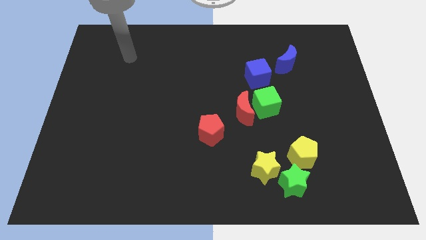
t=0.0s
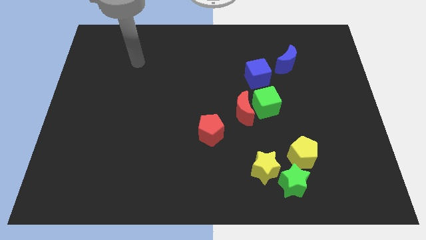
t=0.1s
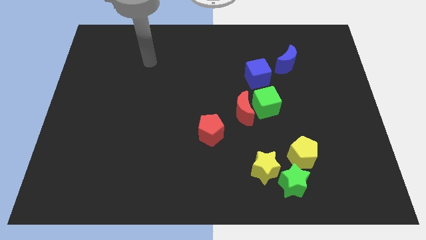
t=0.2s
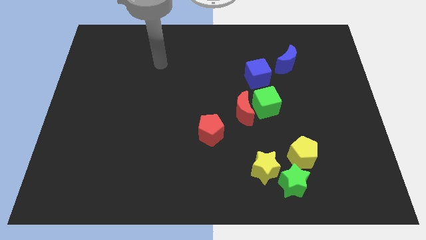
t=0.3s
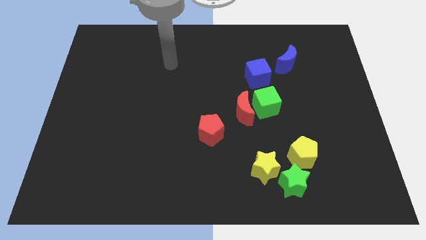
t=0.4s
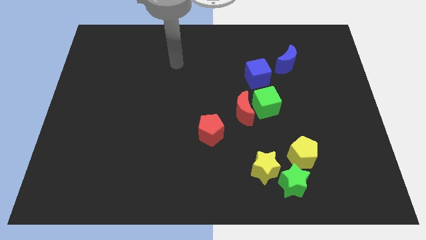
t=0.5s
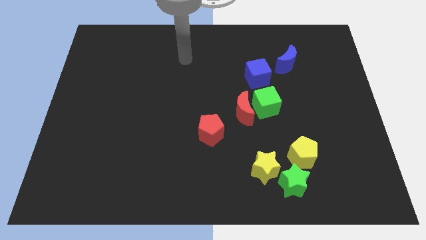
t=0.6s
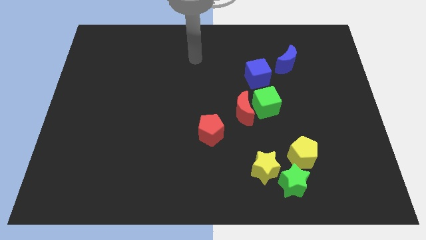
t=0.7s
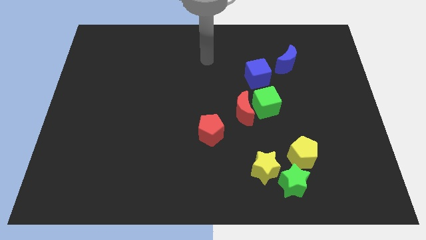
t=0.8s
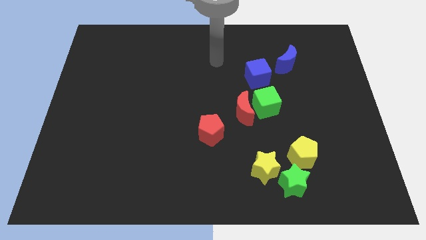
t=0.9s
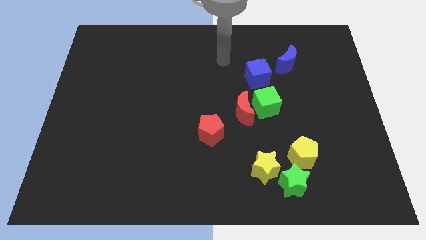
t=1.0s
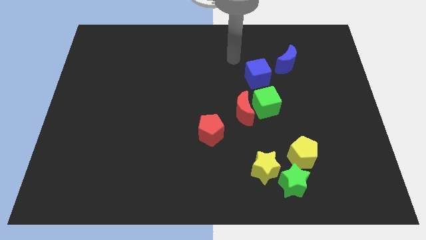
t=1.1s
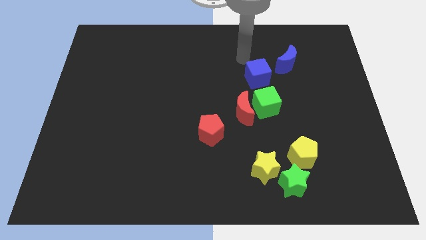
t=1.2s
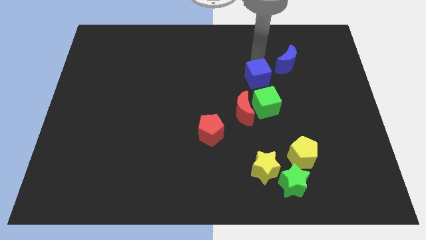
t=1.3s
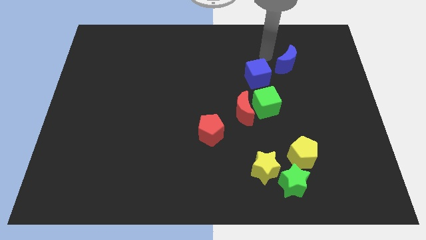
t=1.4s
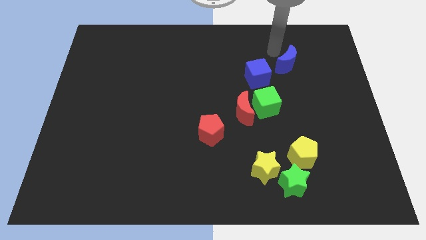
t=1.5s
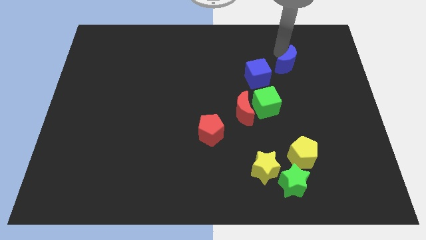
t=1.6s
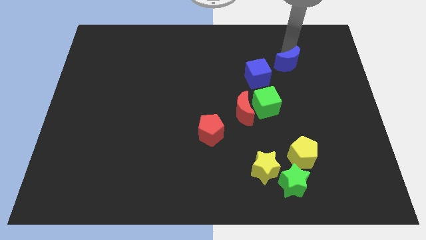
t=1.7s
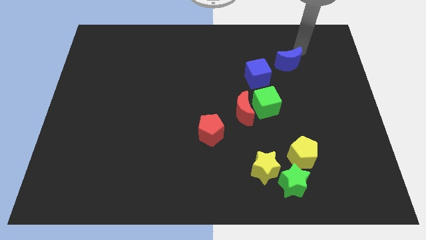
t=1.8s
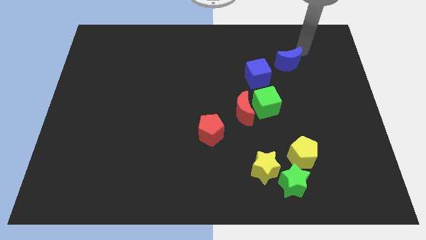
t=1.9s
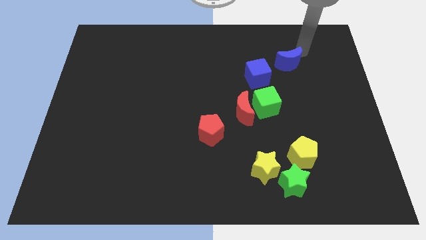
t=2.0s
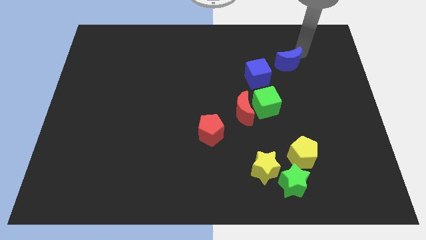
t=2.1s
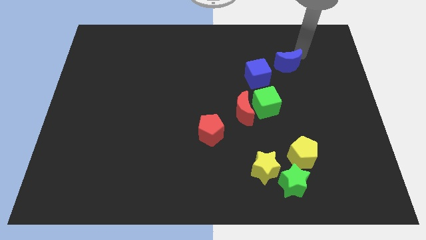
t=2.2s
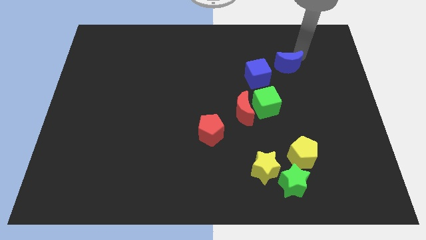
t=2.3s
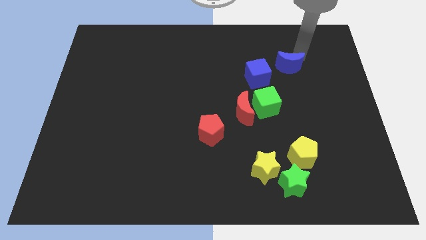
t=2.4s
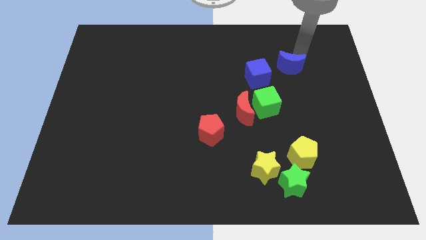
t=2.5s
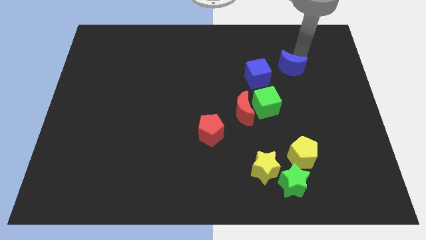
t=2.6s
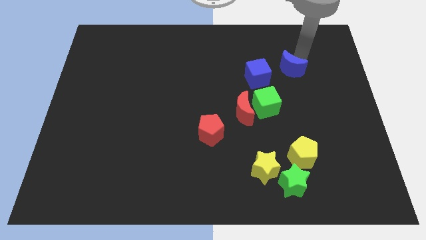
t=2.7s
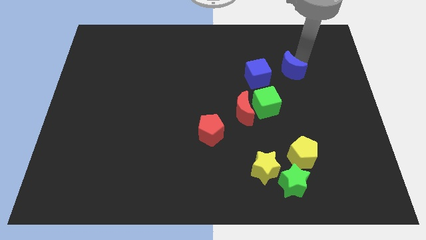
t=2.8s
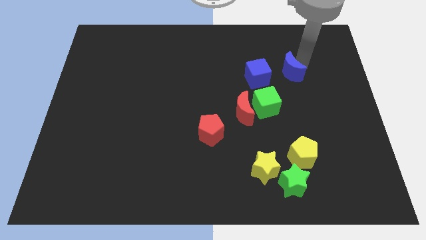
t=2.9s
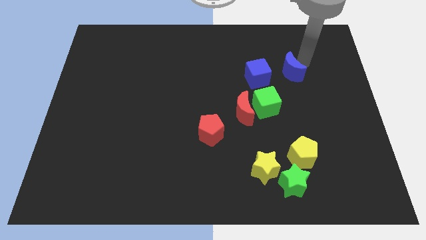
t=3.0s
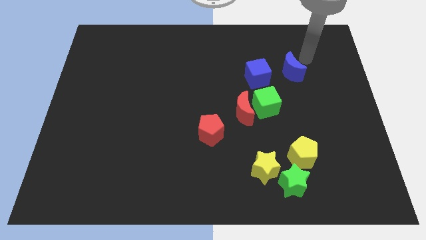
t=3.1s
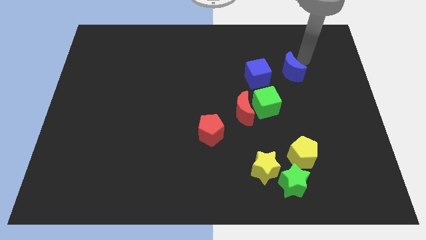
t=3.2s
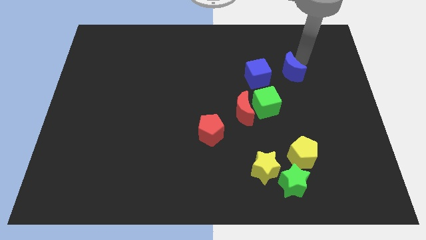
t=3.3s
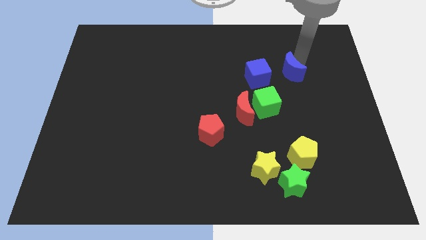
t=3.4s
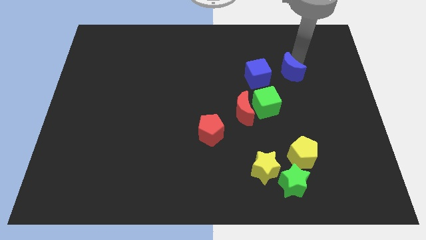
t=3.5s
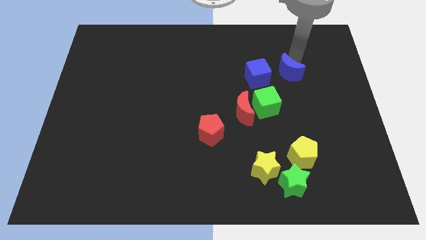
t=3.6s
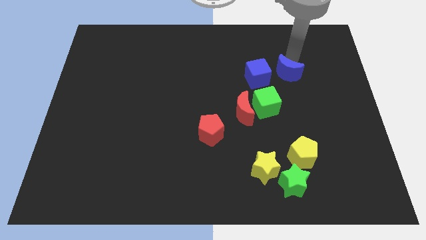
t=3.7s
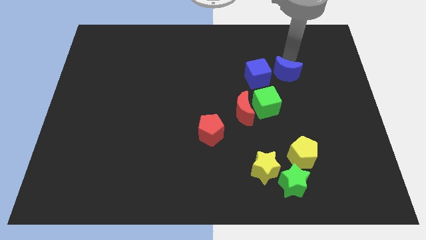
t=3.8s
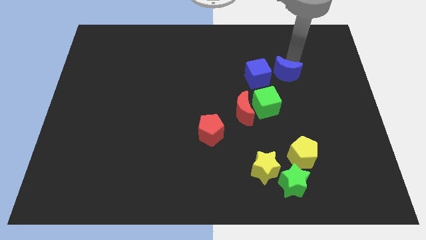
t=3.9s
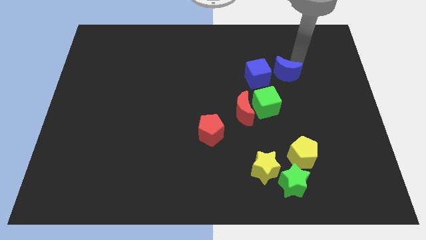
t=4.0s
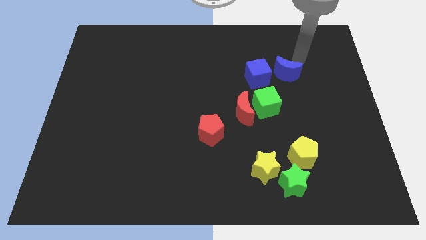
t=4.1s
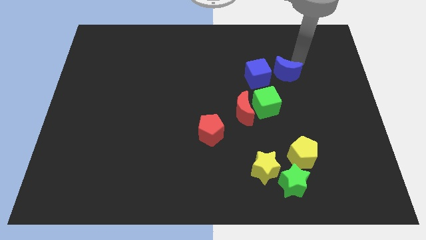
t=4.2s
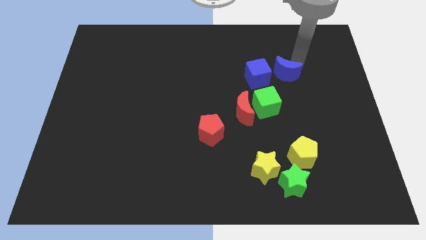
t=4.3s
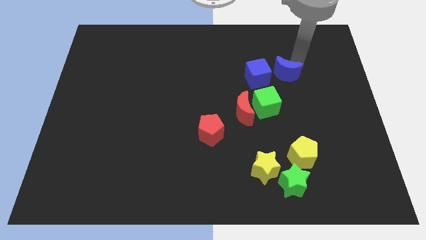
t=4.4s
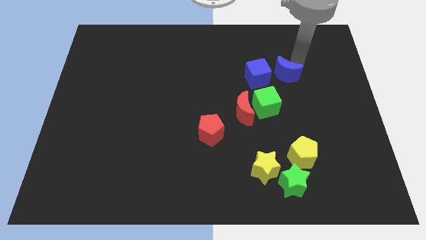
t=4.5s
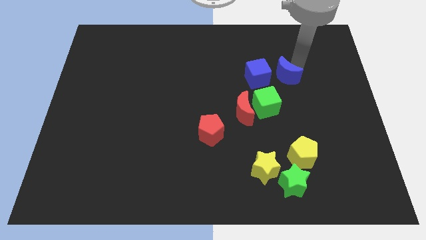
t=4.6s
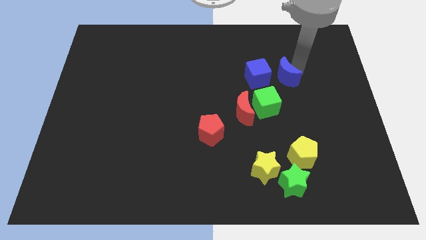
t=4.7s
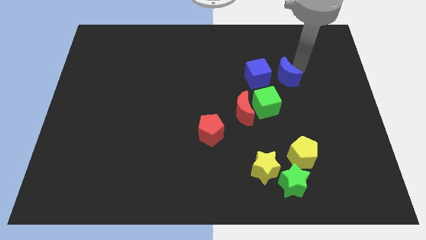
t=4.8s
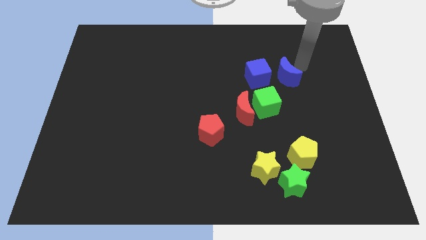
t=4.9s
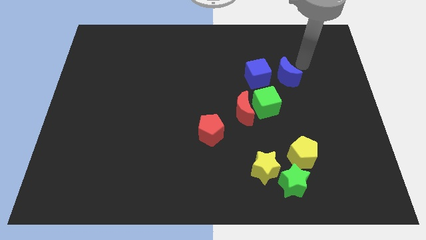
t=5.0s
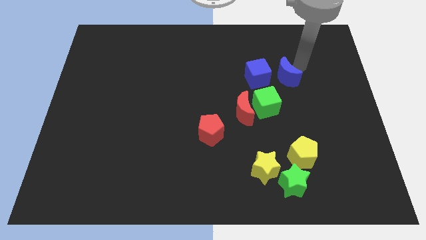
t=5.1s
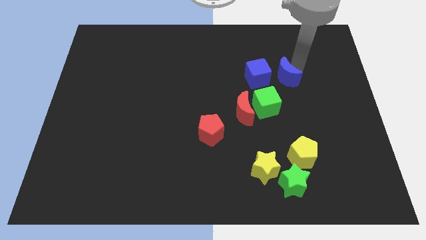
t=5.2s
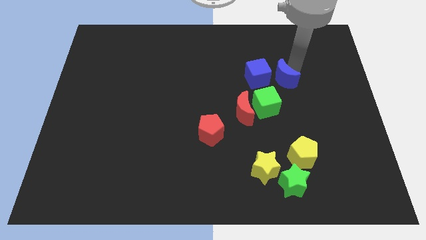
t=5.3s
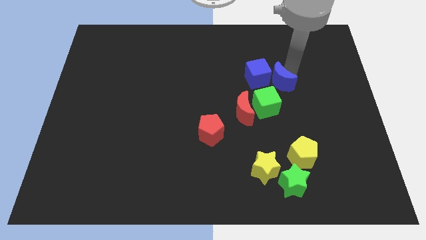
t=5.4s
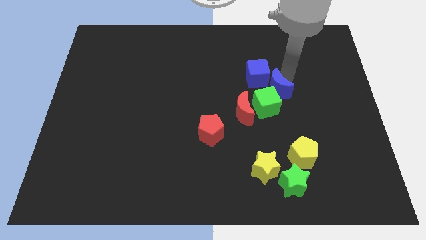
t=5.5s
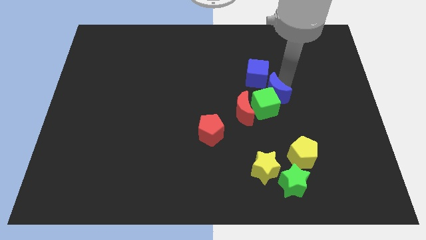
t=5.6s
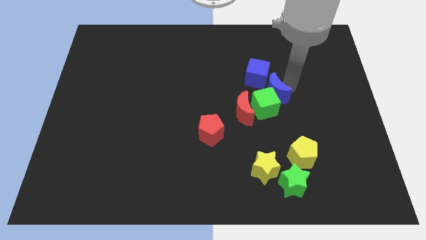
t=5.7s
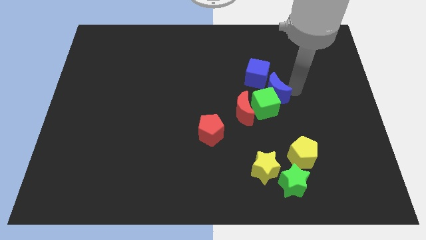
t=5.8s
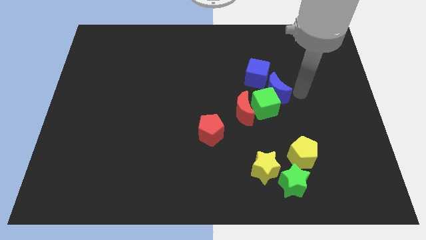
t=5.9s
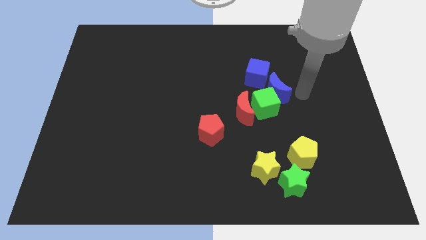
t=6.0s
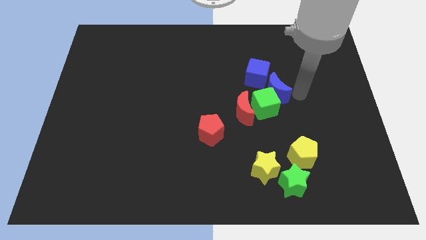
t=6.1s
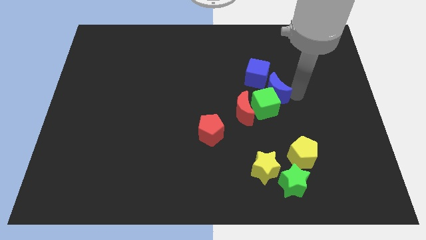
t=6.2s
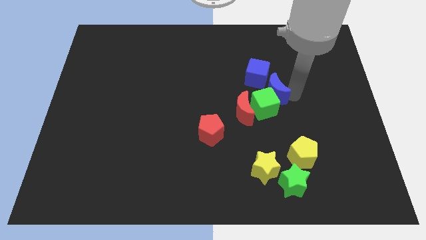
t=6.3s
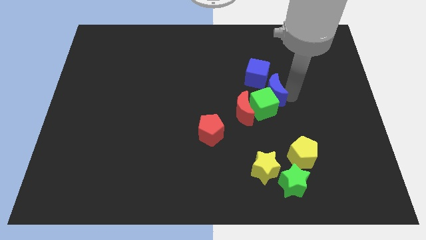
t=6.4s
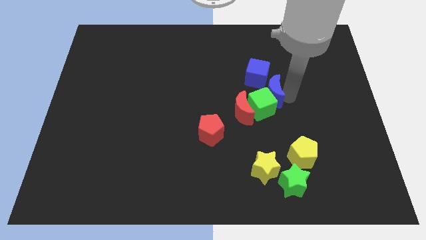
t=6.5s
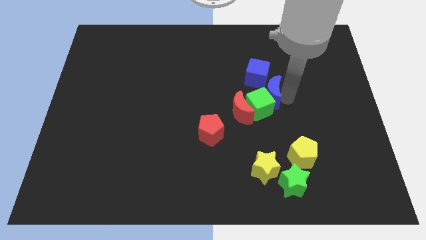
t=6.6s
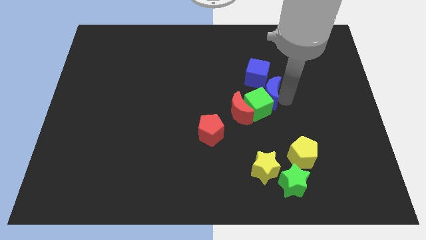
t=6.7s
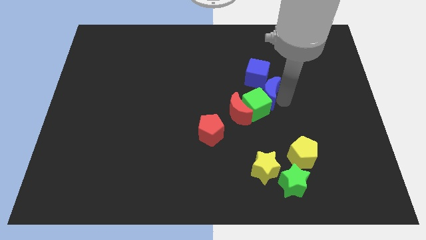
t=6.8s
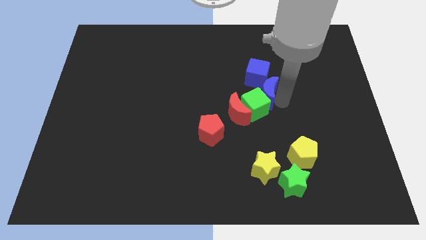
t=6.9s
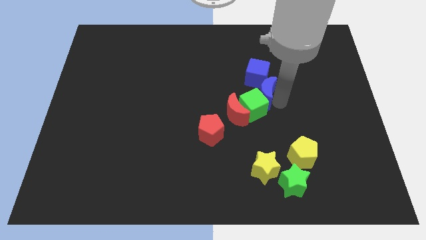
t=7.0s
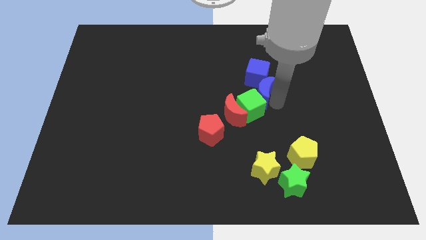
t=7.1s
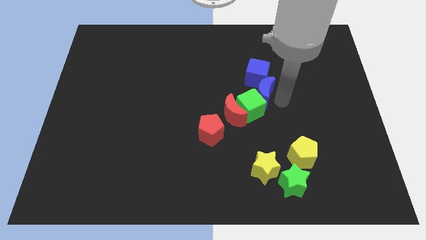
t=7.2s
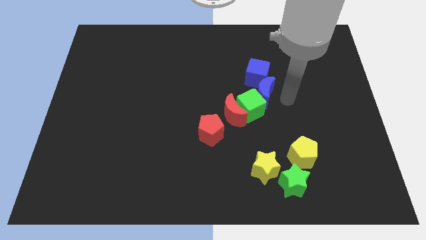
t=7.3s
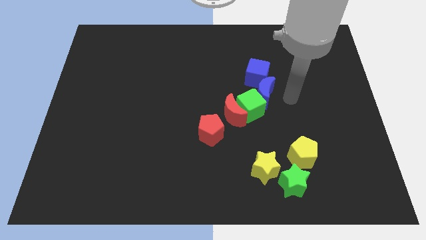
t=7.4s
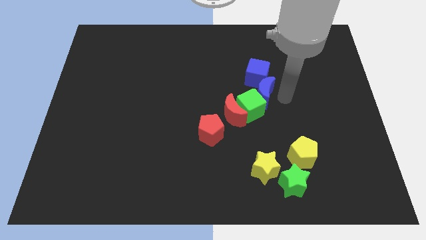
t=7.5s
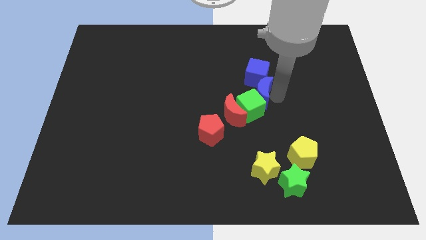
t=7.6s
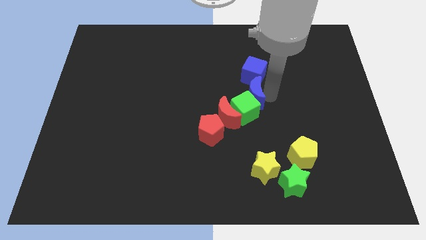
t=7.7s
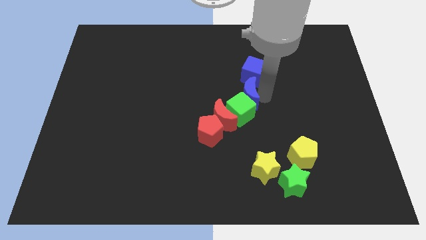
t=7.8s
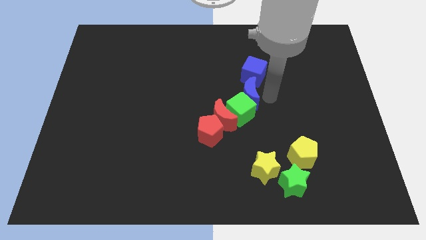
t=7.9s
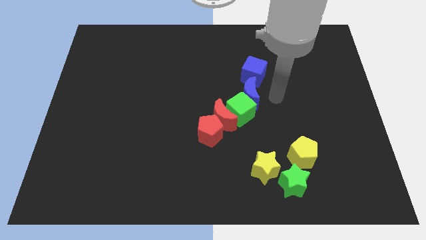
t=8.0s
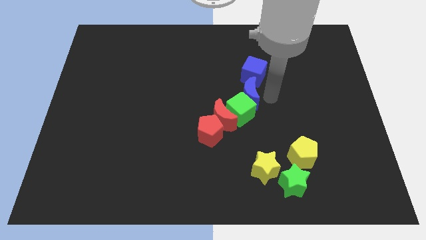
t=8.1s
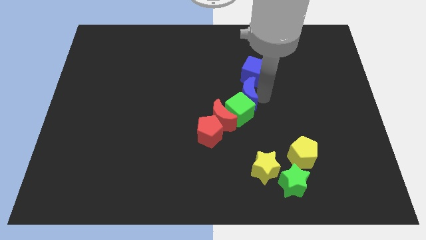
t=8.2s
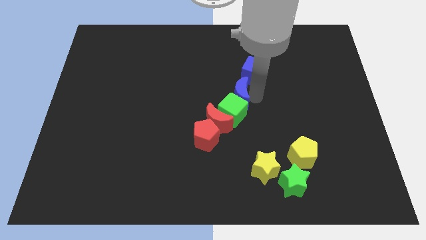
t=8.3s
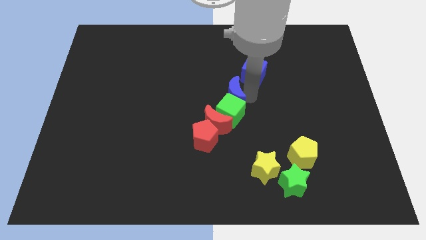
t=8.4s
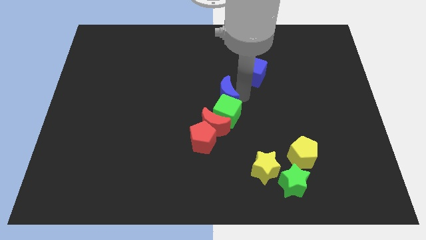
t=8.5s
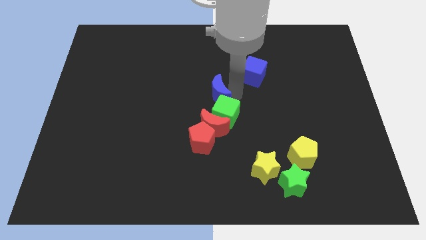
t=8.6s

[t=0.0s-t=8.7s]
push the blue moon above the red pentagon
